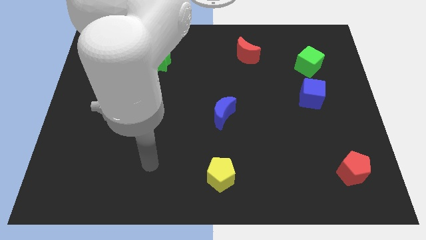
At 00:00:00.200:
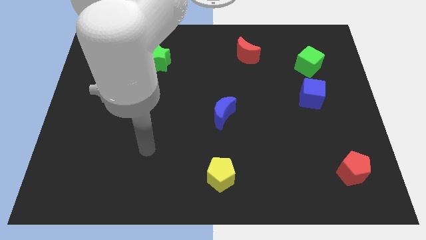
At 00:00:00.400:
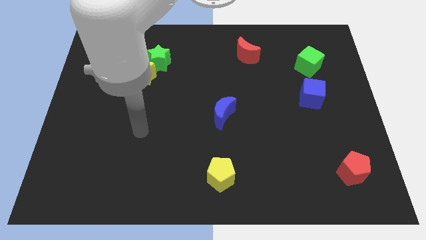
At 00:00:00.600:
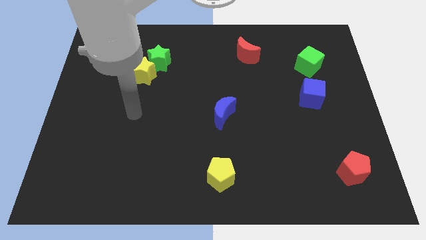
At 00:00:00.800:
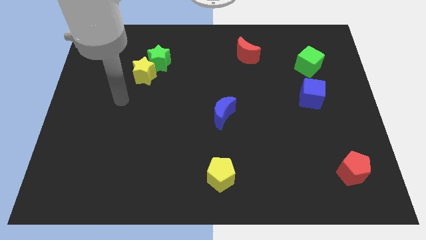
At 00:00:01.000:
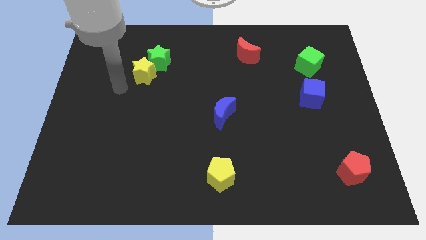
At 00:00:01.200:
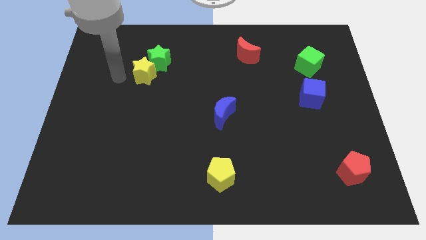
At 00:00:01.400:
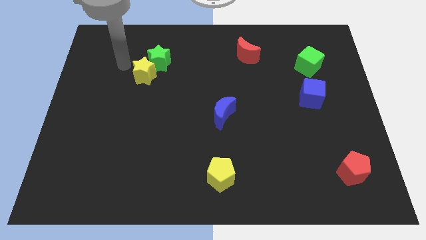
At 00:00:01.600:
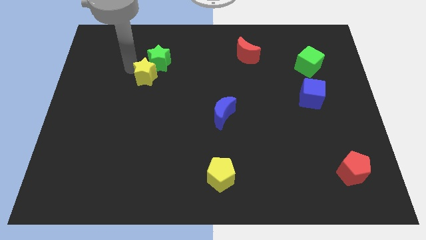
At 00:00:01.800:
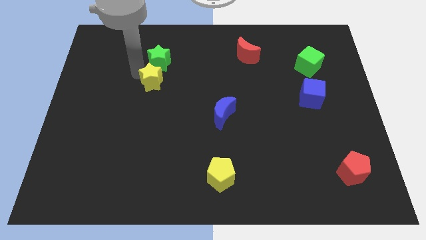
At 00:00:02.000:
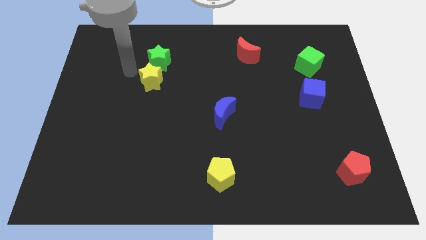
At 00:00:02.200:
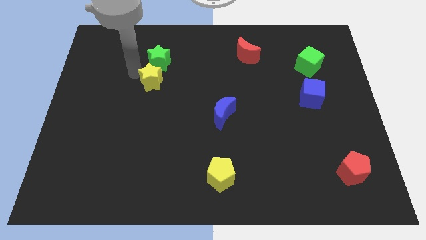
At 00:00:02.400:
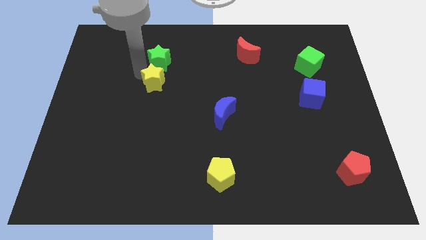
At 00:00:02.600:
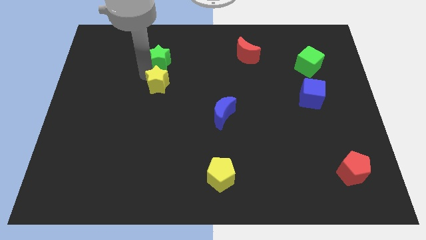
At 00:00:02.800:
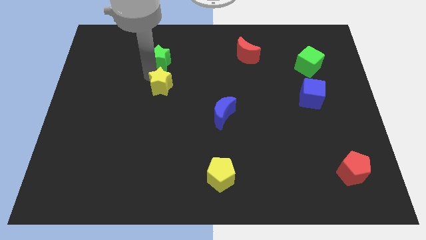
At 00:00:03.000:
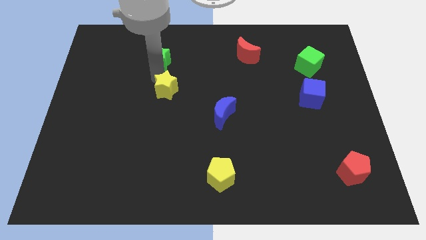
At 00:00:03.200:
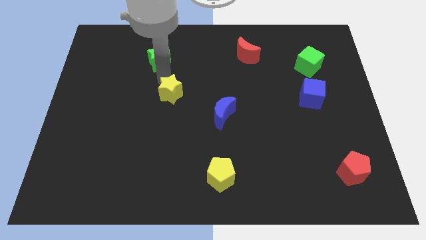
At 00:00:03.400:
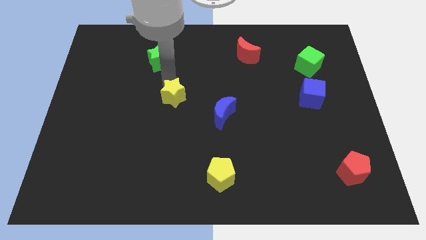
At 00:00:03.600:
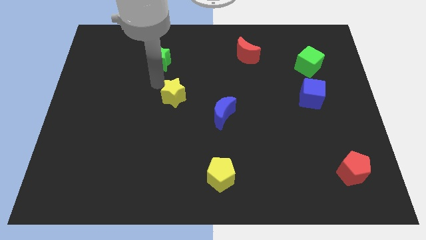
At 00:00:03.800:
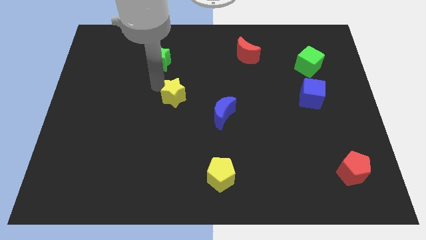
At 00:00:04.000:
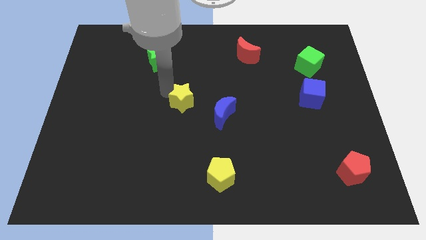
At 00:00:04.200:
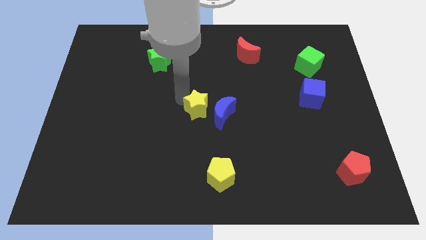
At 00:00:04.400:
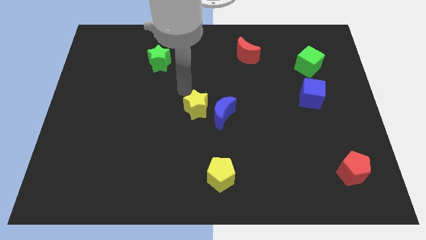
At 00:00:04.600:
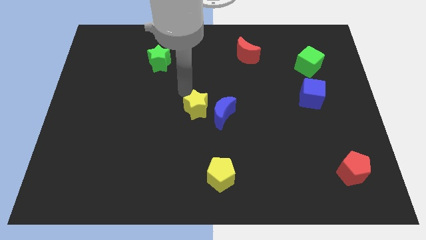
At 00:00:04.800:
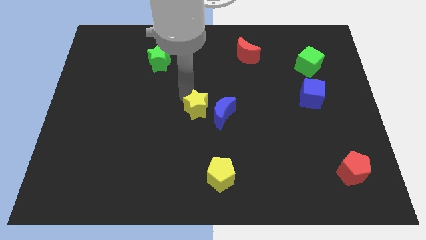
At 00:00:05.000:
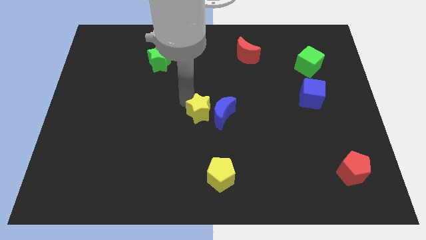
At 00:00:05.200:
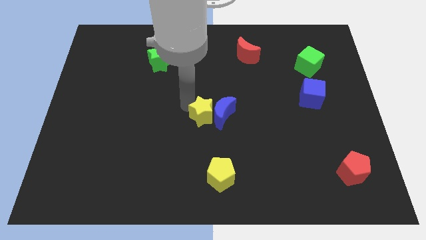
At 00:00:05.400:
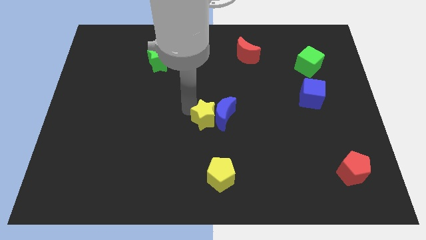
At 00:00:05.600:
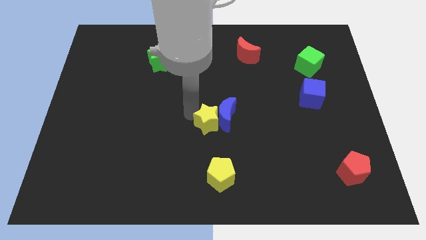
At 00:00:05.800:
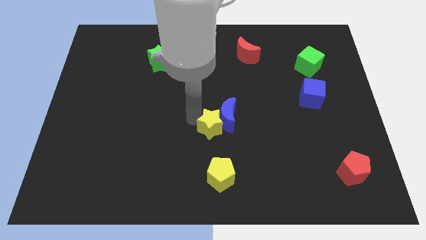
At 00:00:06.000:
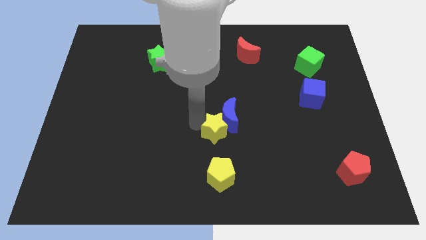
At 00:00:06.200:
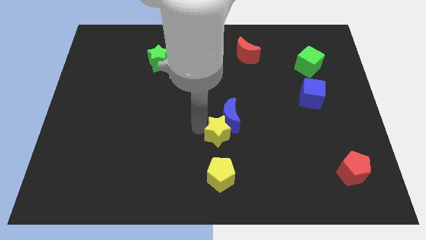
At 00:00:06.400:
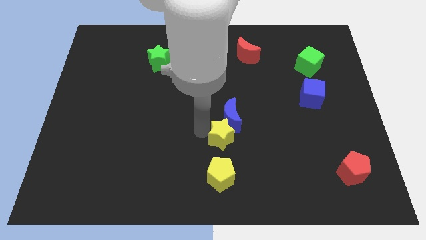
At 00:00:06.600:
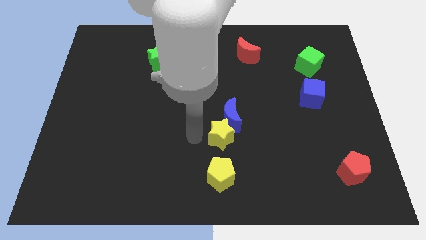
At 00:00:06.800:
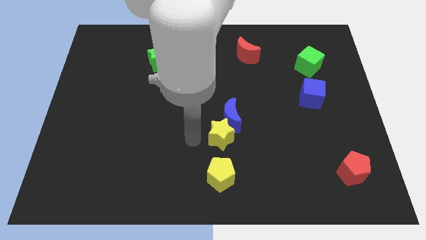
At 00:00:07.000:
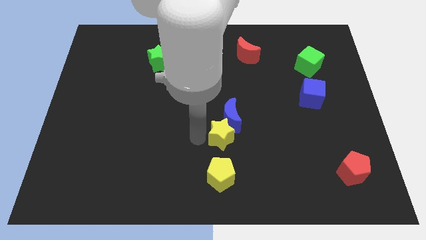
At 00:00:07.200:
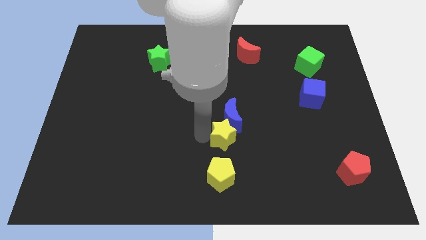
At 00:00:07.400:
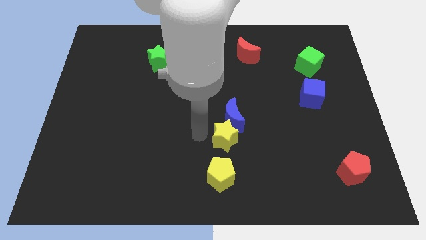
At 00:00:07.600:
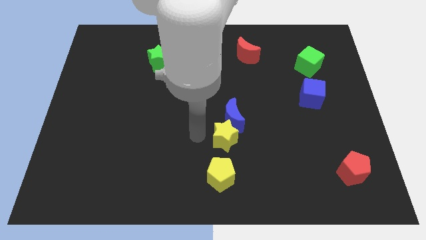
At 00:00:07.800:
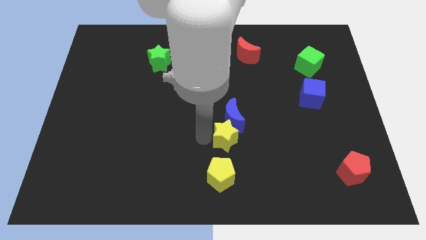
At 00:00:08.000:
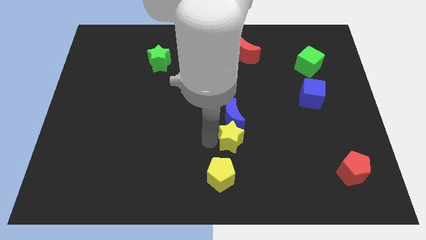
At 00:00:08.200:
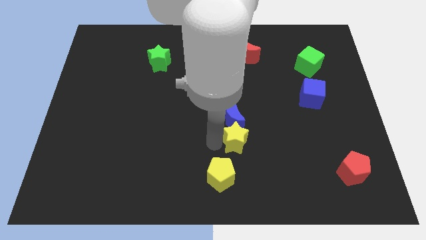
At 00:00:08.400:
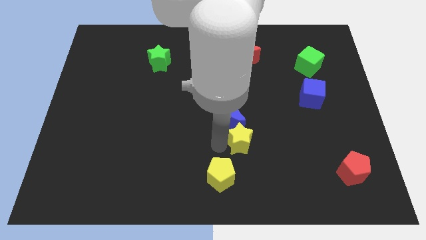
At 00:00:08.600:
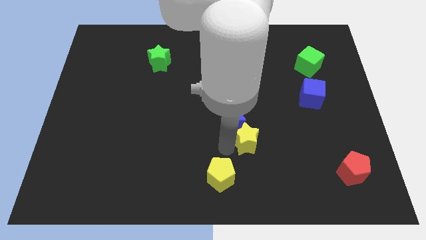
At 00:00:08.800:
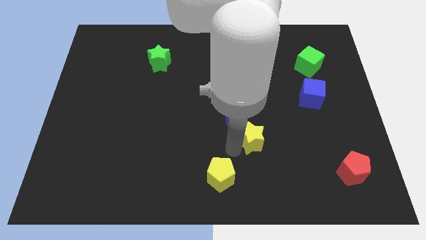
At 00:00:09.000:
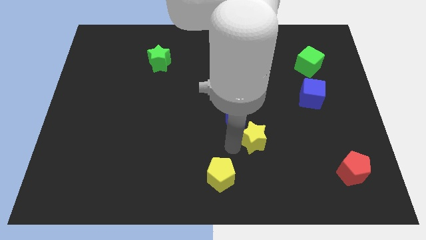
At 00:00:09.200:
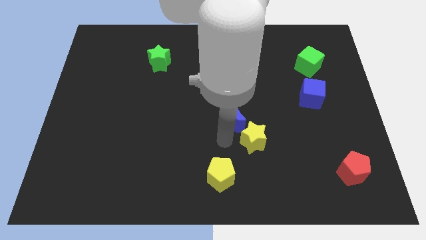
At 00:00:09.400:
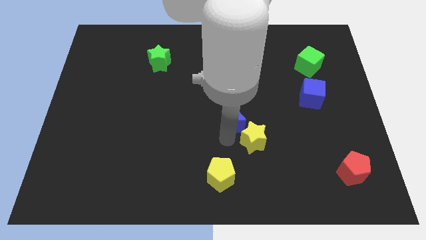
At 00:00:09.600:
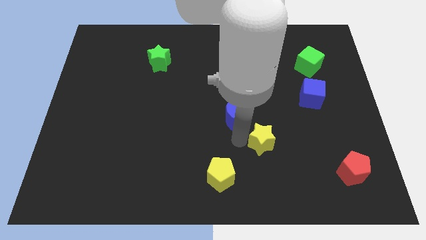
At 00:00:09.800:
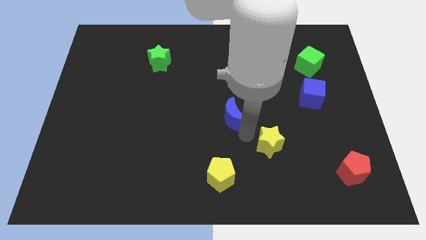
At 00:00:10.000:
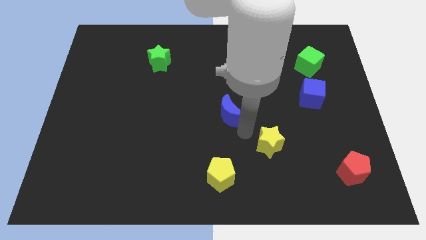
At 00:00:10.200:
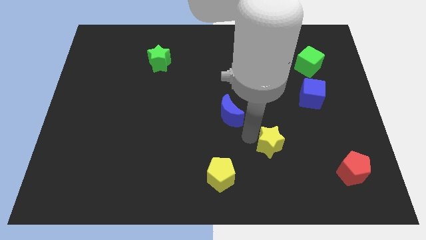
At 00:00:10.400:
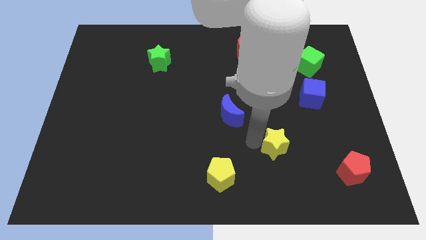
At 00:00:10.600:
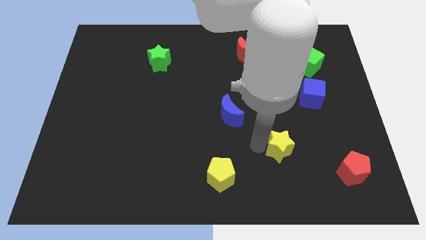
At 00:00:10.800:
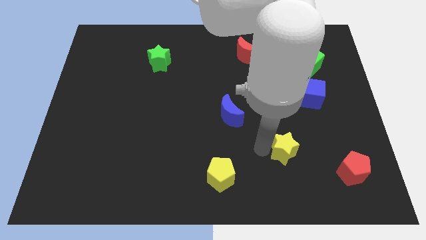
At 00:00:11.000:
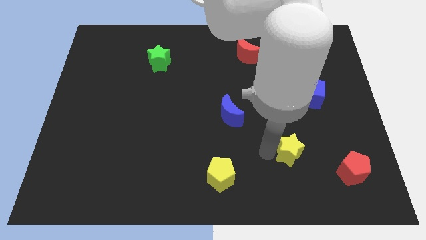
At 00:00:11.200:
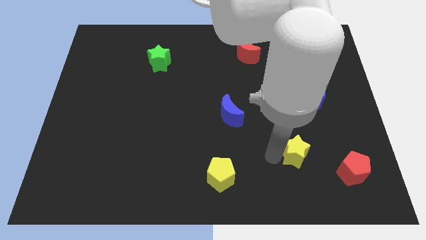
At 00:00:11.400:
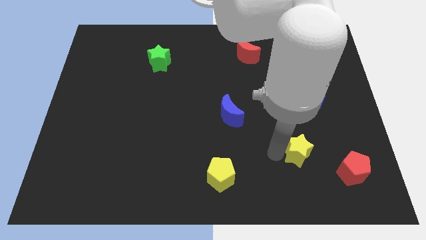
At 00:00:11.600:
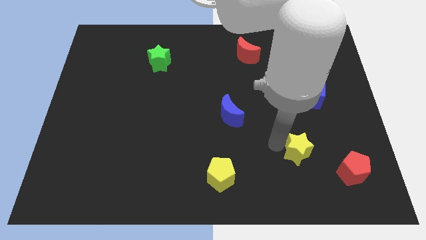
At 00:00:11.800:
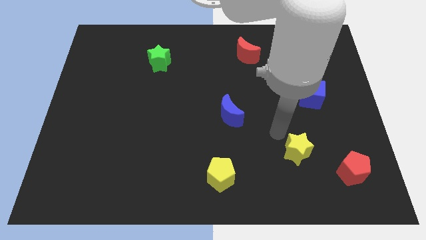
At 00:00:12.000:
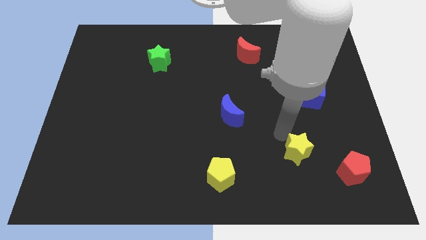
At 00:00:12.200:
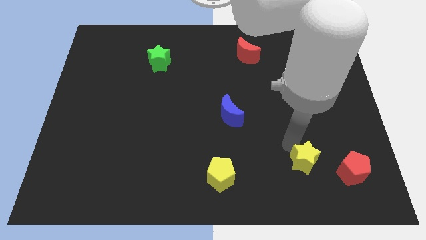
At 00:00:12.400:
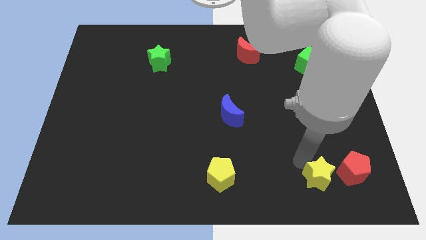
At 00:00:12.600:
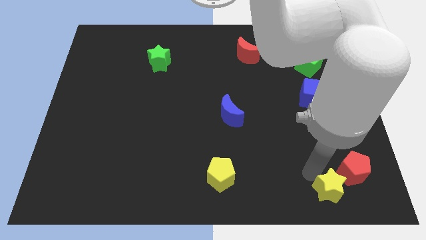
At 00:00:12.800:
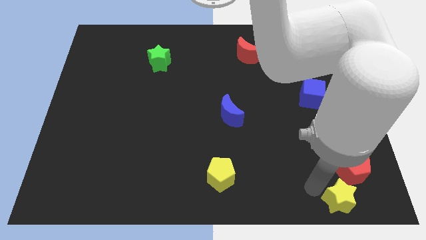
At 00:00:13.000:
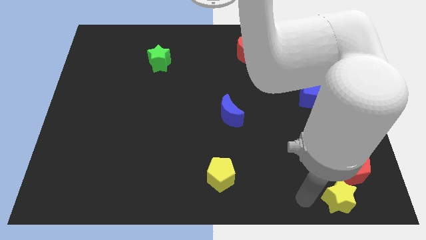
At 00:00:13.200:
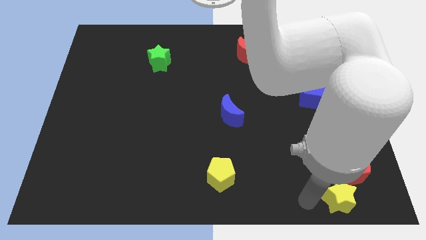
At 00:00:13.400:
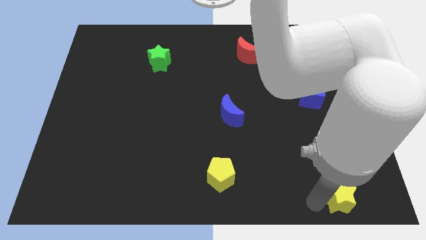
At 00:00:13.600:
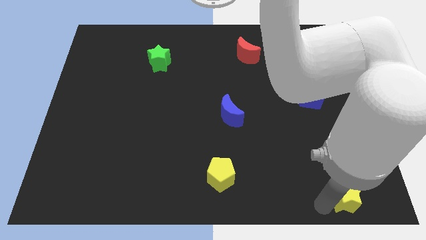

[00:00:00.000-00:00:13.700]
move the yellow star to the bottom right of the board
